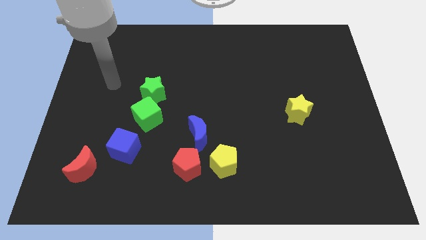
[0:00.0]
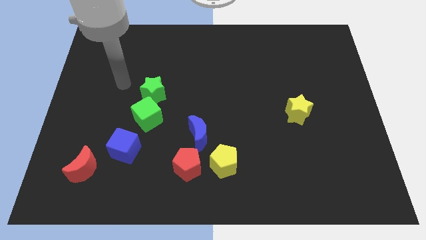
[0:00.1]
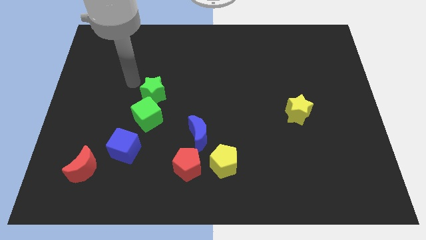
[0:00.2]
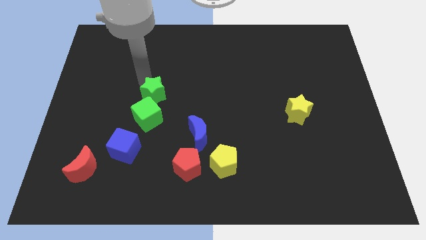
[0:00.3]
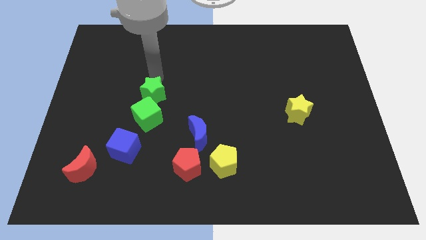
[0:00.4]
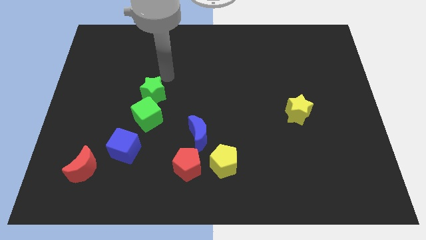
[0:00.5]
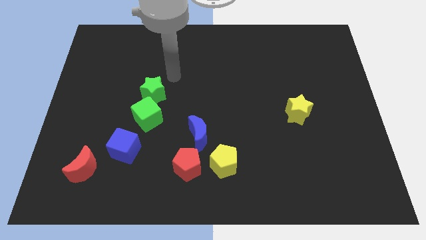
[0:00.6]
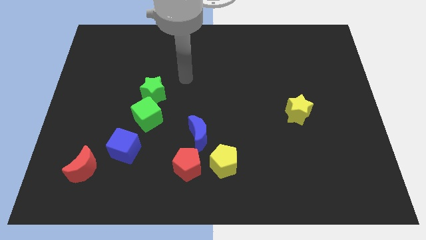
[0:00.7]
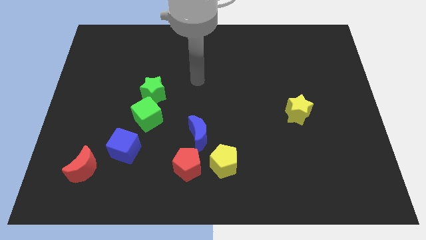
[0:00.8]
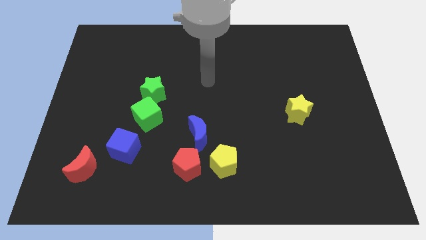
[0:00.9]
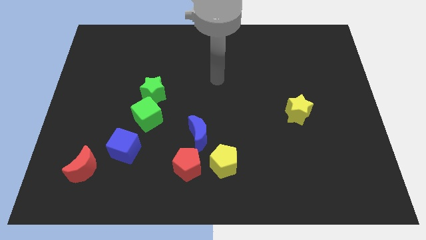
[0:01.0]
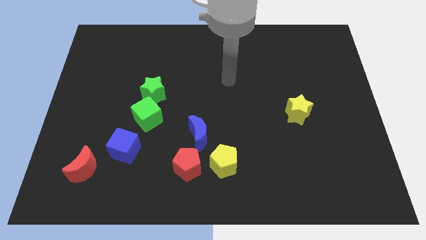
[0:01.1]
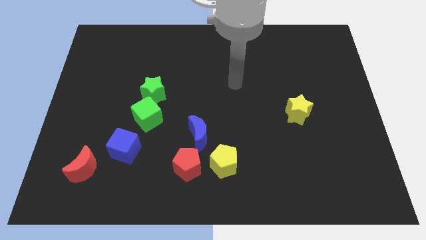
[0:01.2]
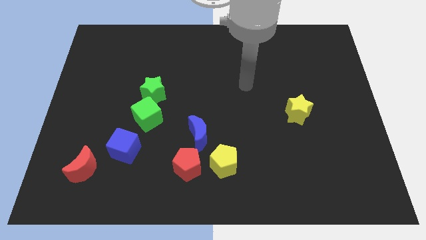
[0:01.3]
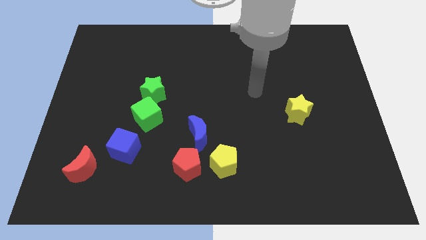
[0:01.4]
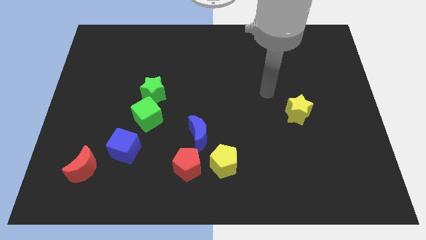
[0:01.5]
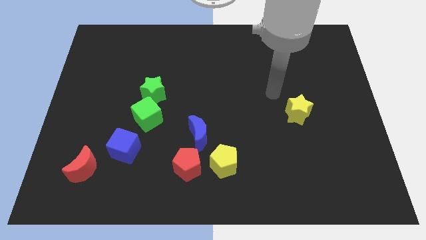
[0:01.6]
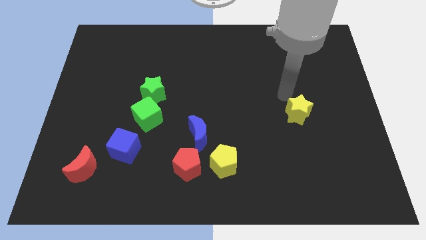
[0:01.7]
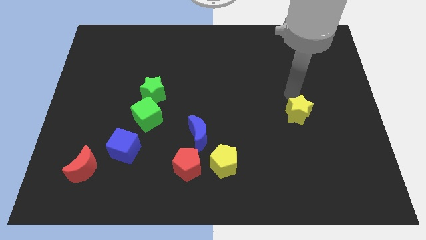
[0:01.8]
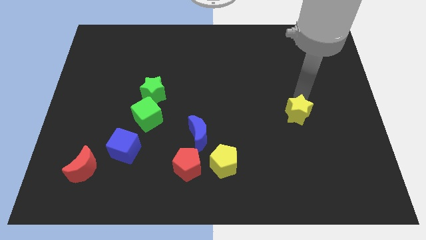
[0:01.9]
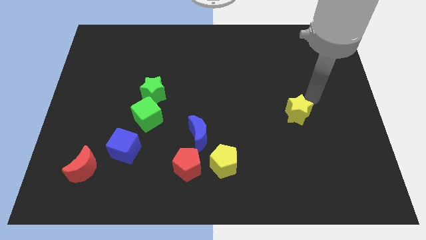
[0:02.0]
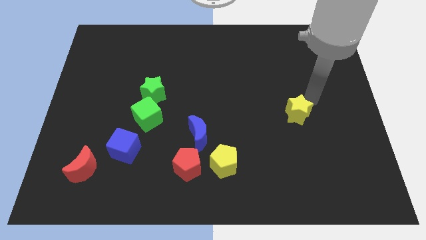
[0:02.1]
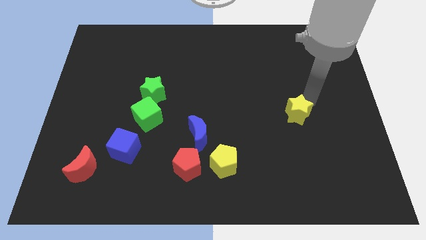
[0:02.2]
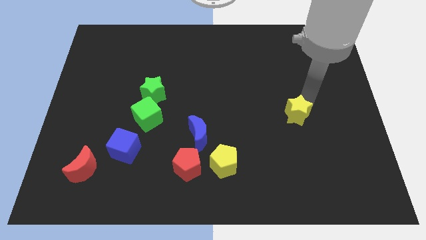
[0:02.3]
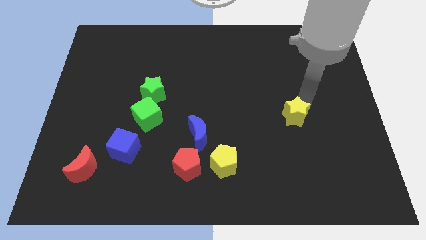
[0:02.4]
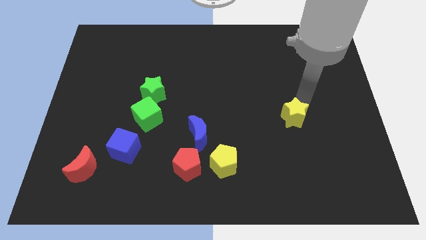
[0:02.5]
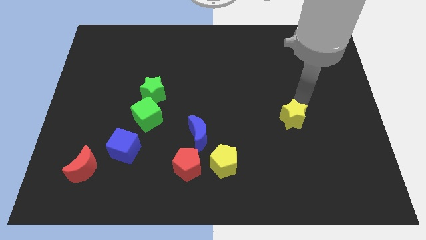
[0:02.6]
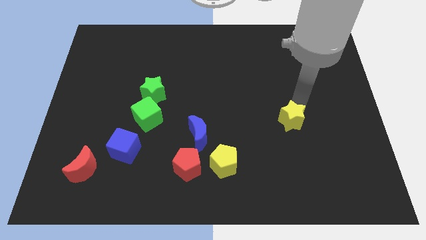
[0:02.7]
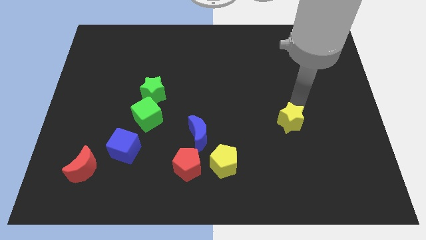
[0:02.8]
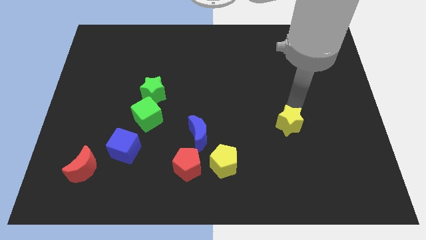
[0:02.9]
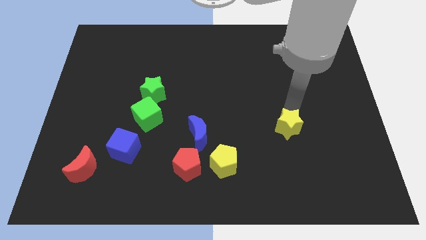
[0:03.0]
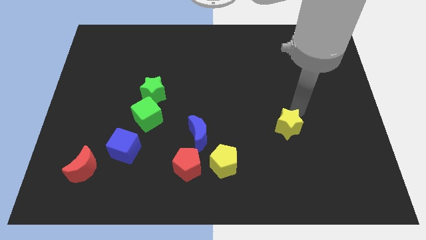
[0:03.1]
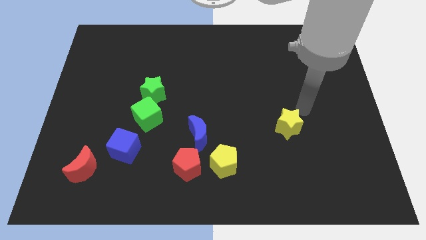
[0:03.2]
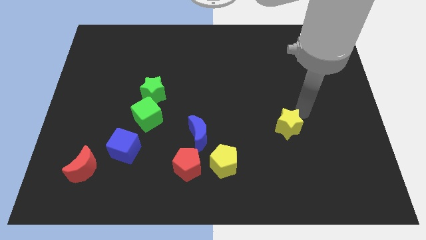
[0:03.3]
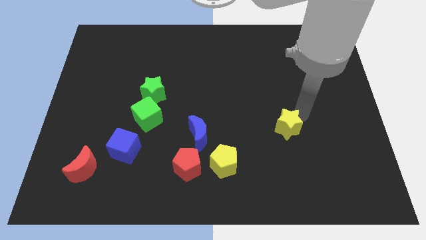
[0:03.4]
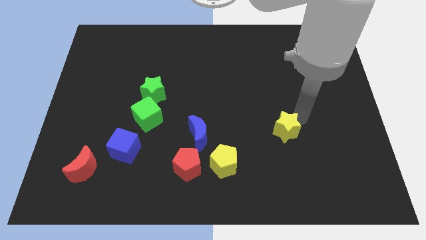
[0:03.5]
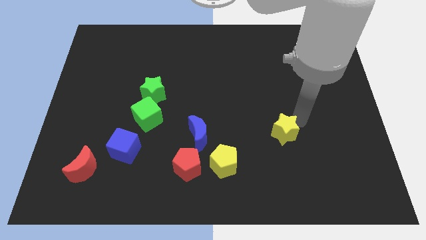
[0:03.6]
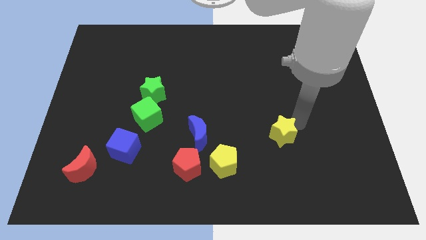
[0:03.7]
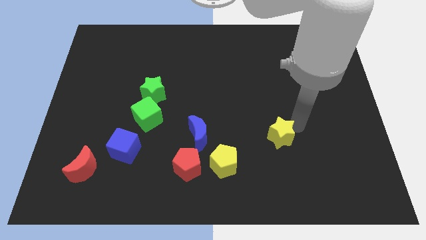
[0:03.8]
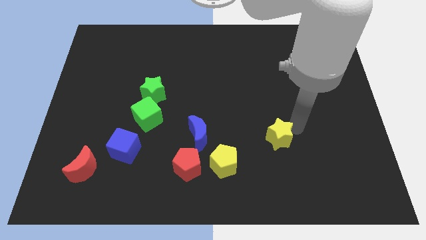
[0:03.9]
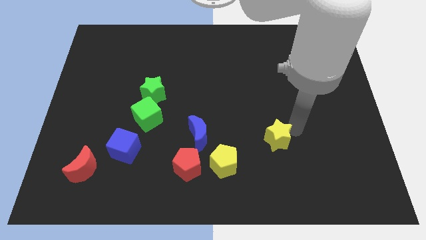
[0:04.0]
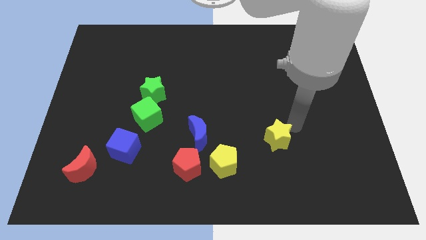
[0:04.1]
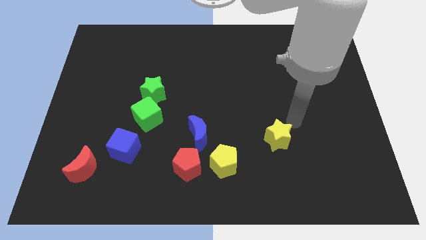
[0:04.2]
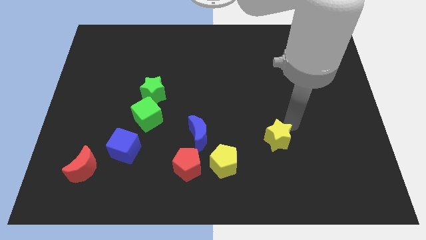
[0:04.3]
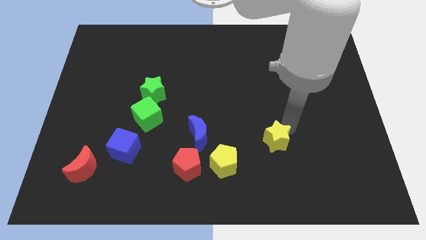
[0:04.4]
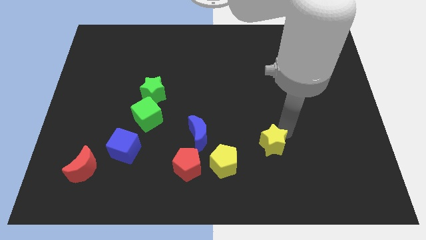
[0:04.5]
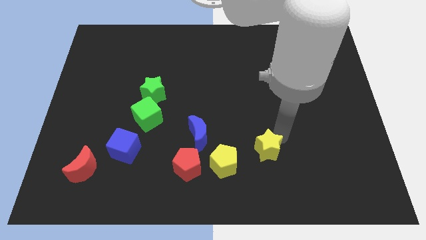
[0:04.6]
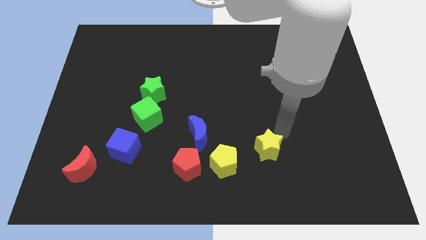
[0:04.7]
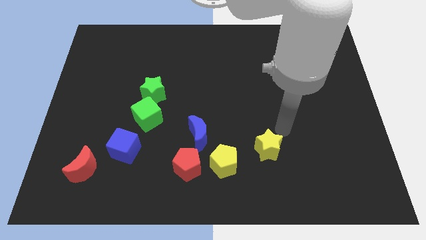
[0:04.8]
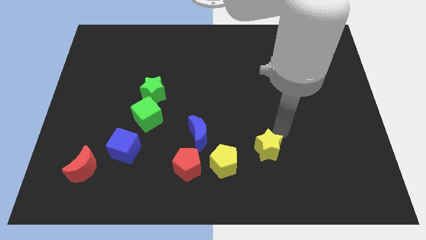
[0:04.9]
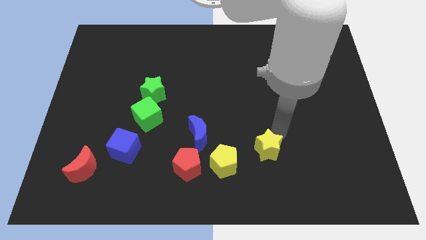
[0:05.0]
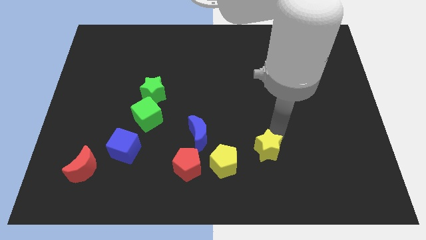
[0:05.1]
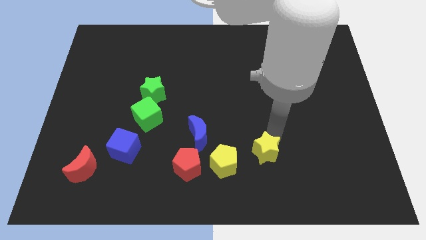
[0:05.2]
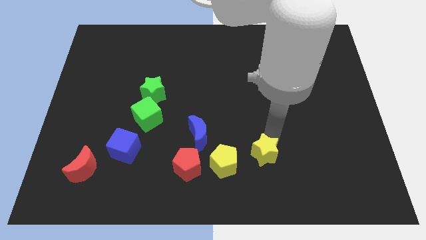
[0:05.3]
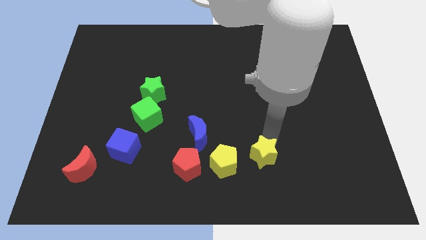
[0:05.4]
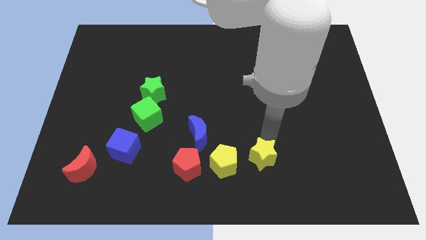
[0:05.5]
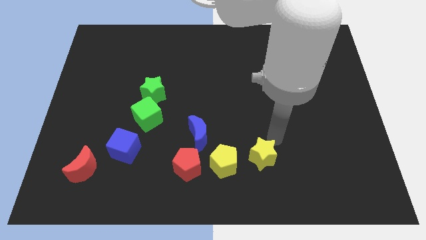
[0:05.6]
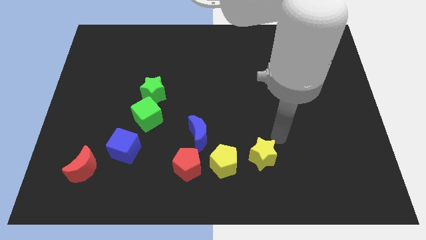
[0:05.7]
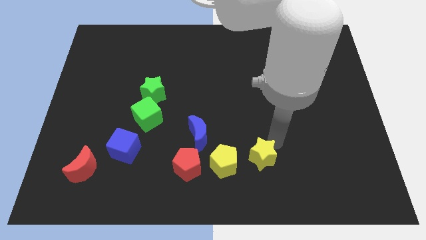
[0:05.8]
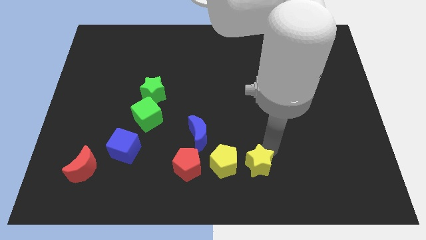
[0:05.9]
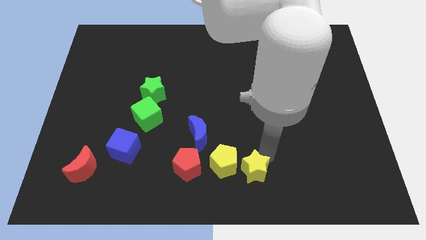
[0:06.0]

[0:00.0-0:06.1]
push the yellow star to the bottom
